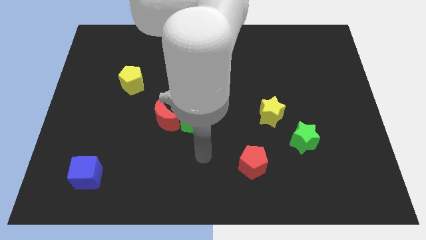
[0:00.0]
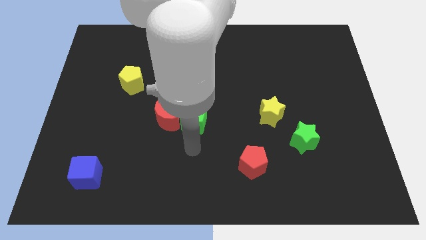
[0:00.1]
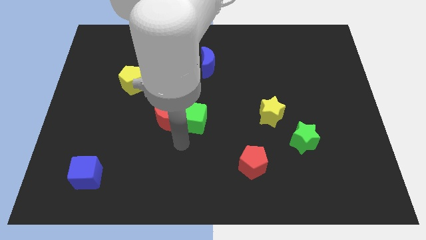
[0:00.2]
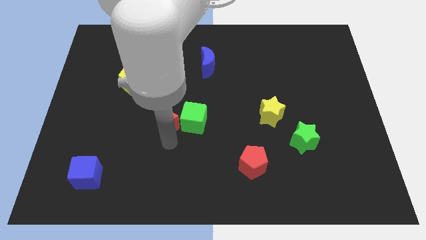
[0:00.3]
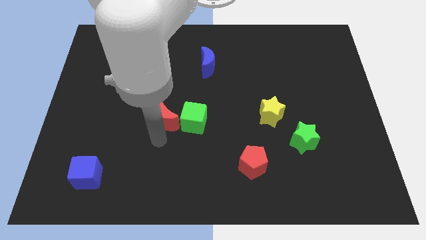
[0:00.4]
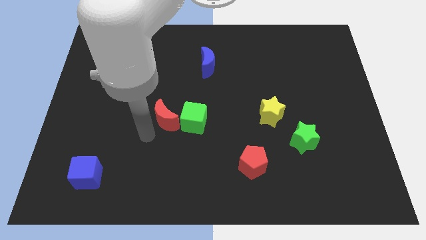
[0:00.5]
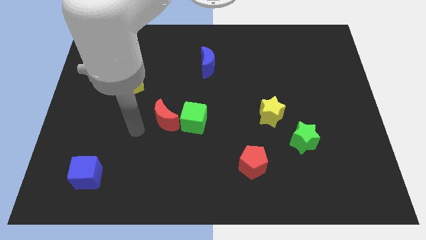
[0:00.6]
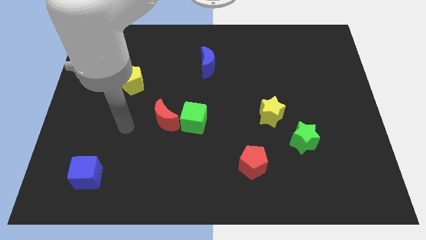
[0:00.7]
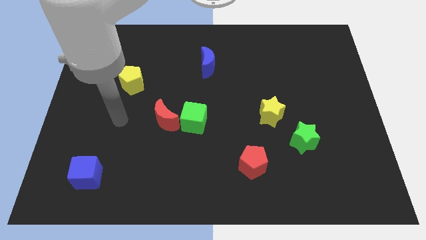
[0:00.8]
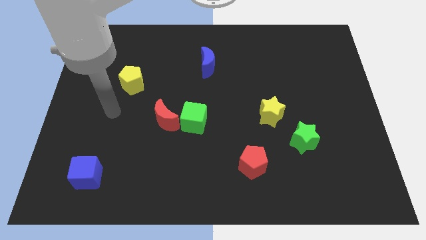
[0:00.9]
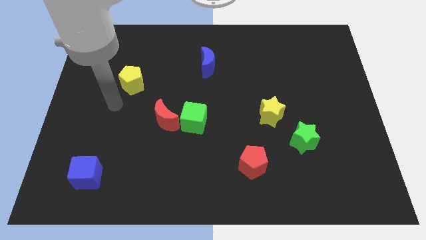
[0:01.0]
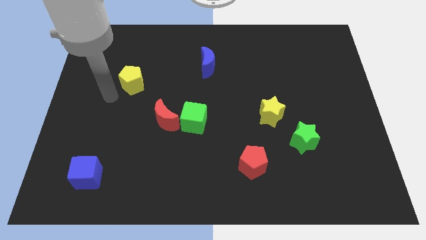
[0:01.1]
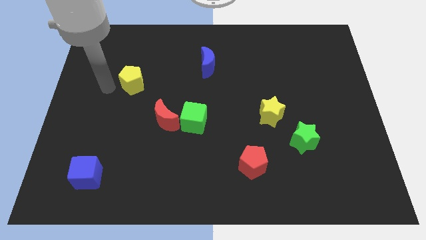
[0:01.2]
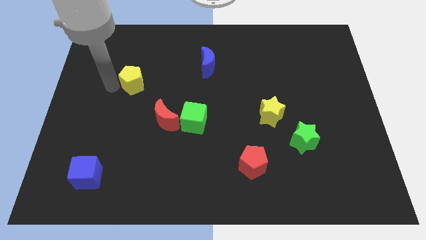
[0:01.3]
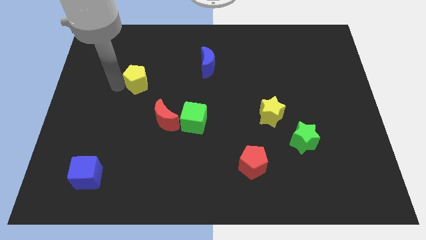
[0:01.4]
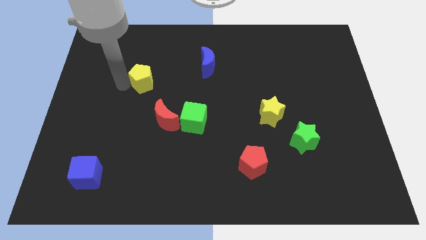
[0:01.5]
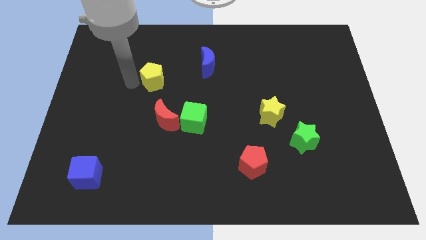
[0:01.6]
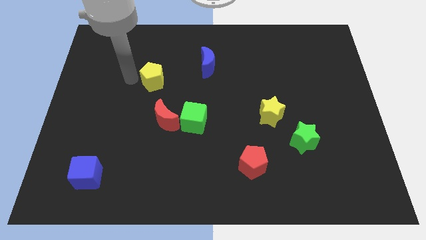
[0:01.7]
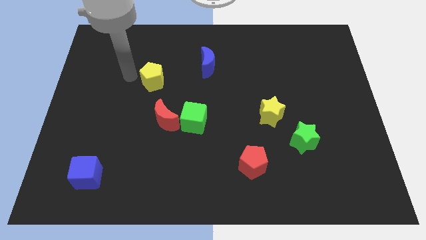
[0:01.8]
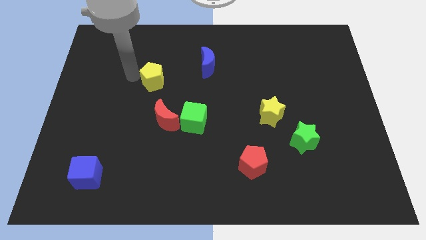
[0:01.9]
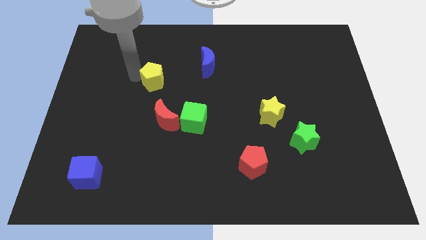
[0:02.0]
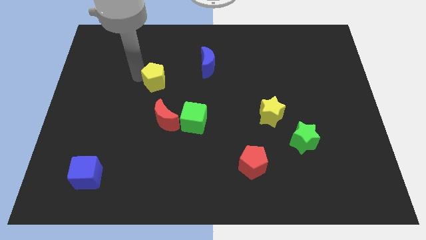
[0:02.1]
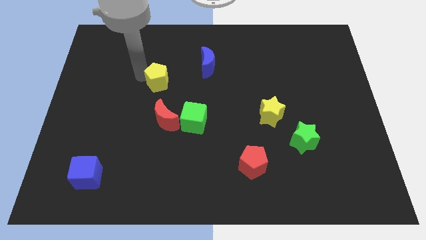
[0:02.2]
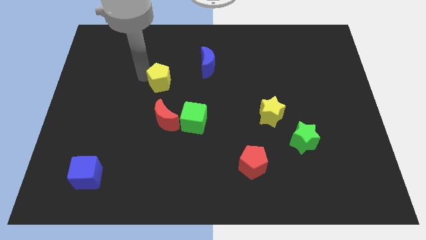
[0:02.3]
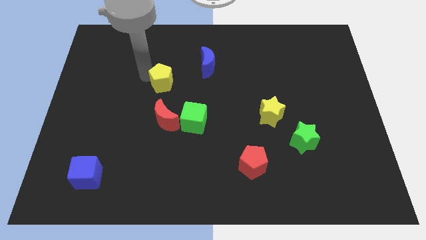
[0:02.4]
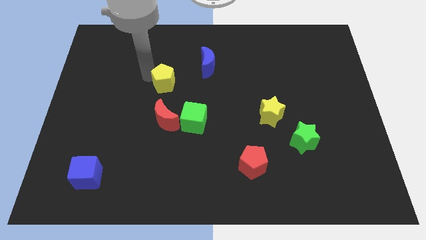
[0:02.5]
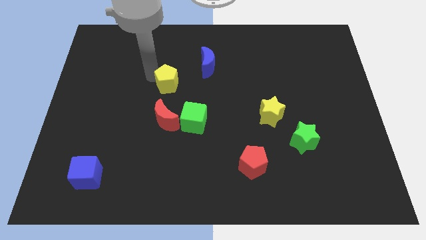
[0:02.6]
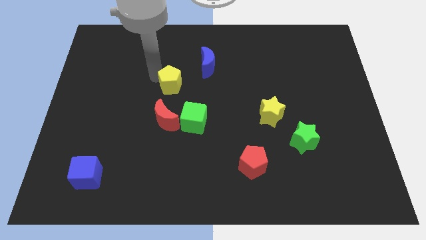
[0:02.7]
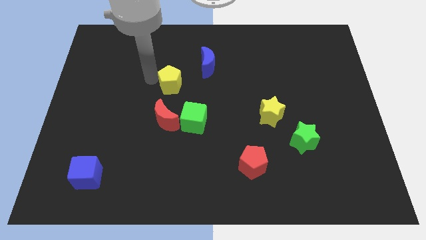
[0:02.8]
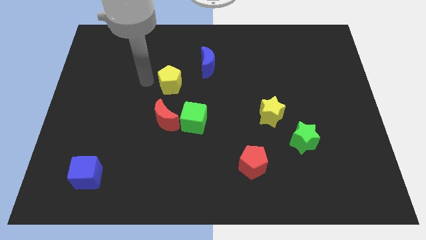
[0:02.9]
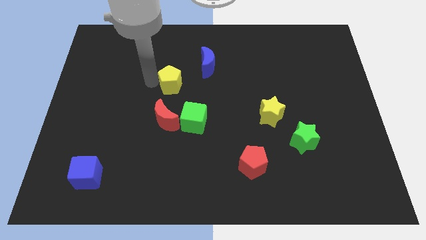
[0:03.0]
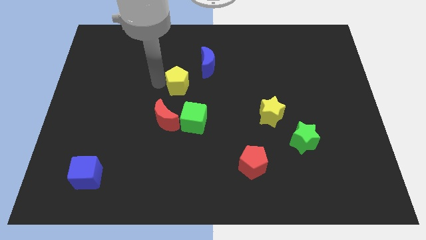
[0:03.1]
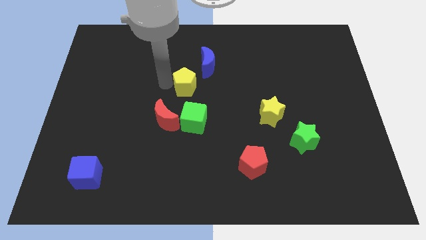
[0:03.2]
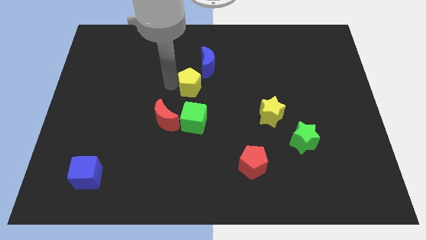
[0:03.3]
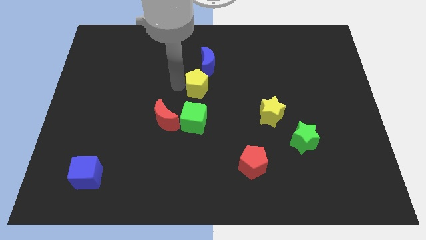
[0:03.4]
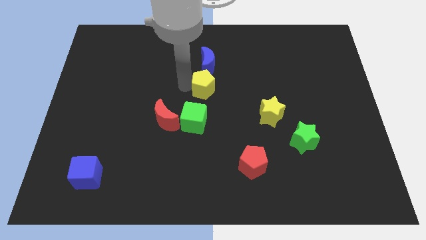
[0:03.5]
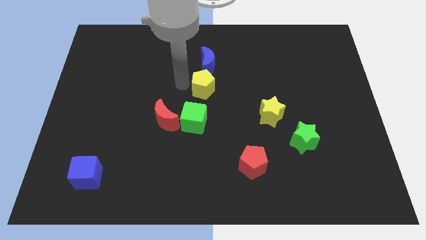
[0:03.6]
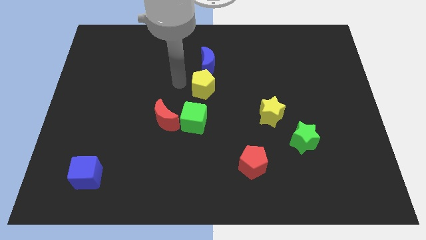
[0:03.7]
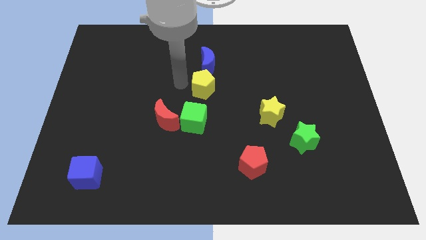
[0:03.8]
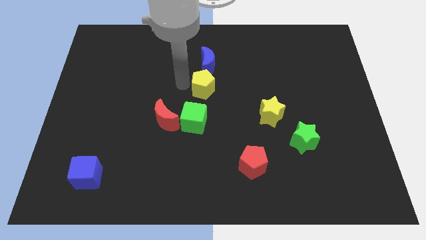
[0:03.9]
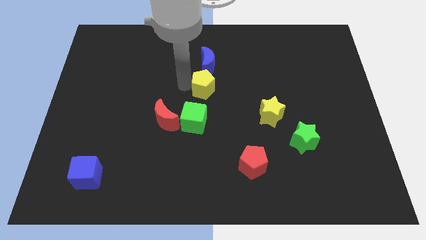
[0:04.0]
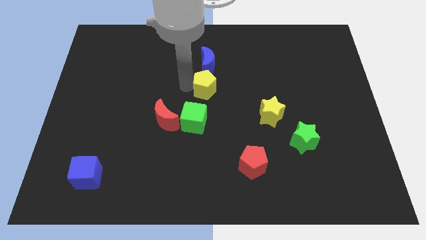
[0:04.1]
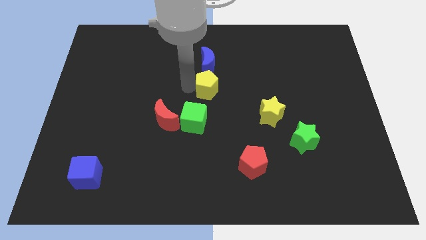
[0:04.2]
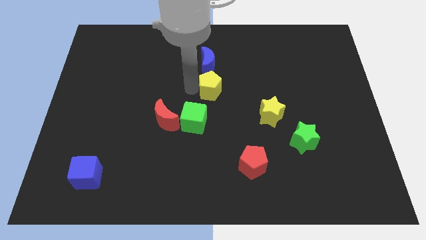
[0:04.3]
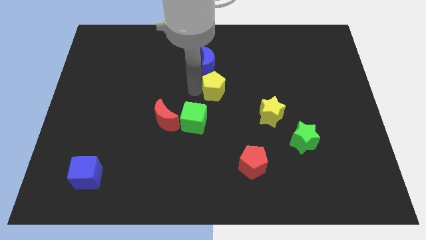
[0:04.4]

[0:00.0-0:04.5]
push the yellow pentagon to the right

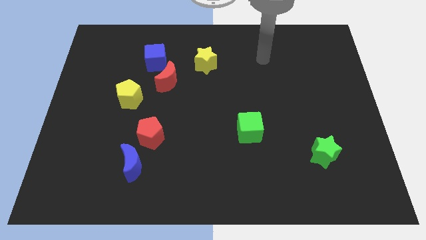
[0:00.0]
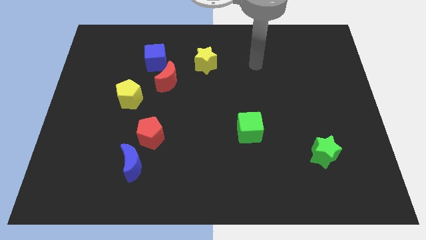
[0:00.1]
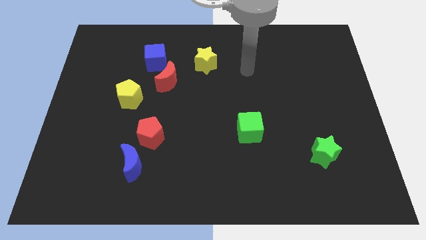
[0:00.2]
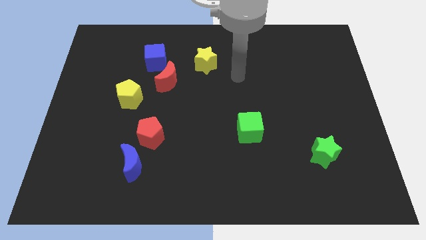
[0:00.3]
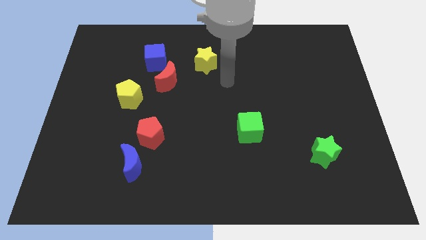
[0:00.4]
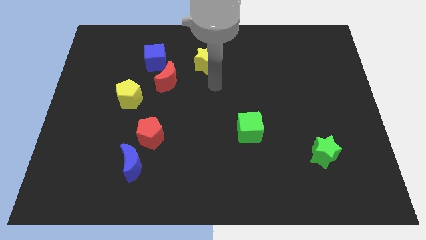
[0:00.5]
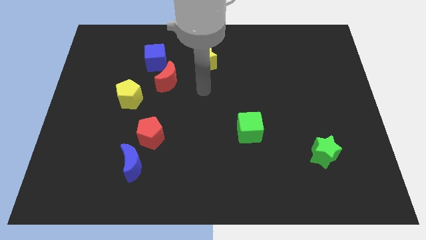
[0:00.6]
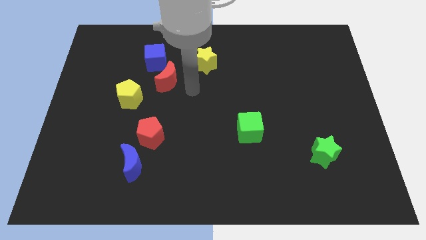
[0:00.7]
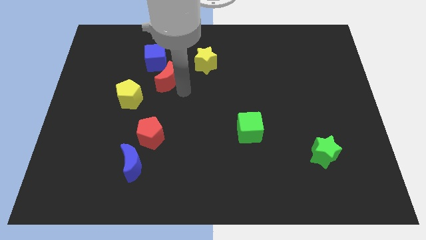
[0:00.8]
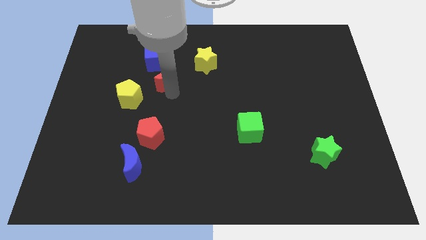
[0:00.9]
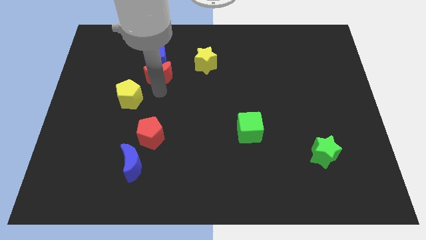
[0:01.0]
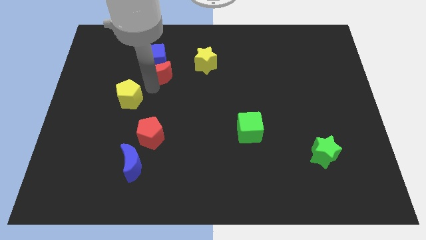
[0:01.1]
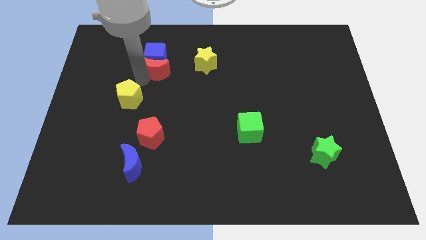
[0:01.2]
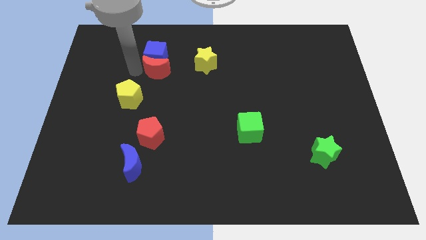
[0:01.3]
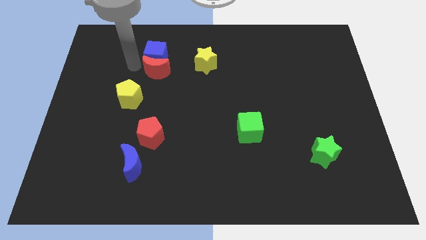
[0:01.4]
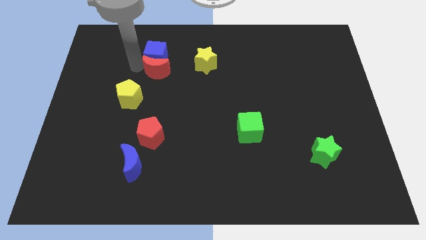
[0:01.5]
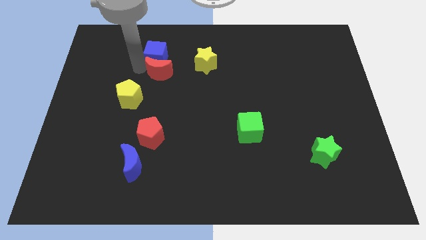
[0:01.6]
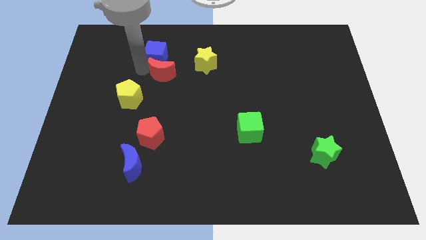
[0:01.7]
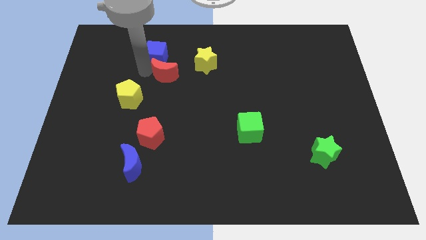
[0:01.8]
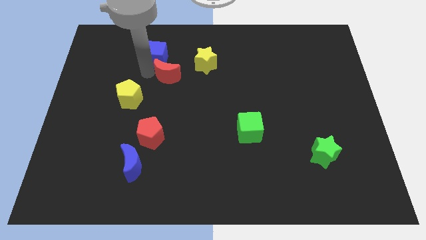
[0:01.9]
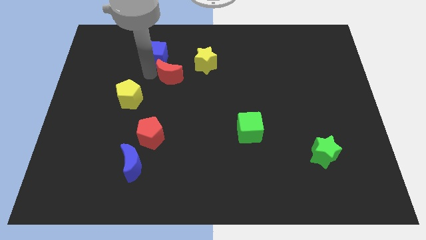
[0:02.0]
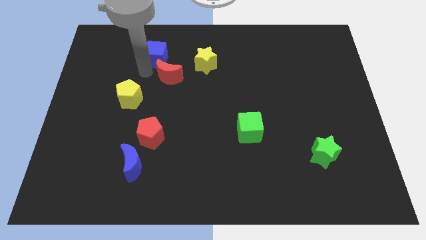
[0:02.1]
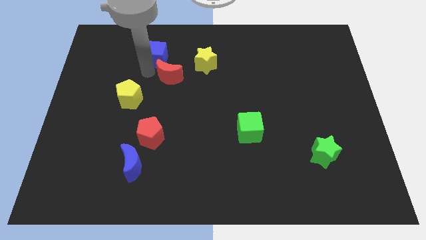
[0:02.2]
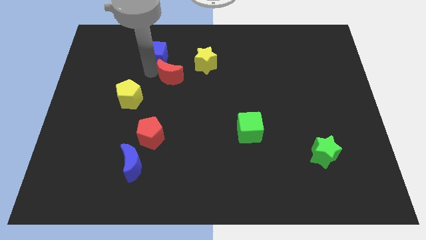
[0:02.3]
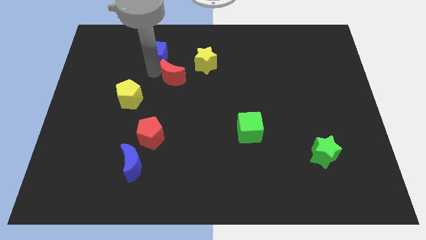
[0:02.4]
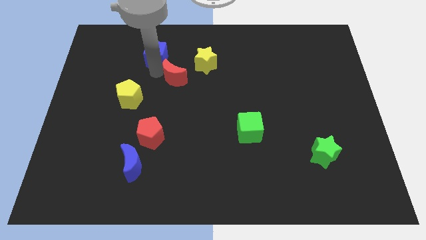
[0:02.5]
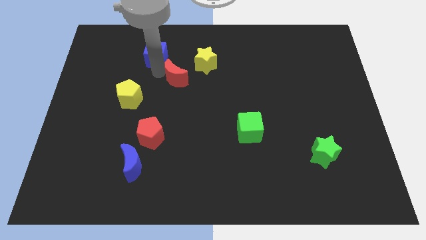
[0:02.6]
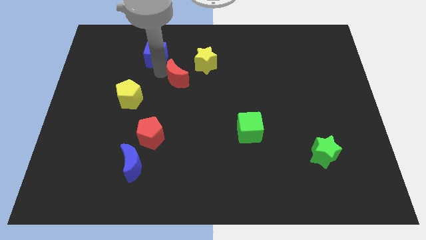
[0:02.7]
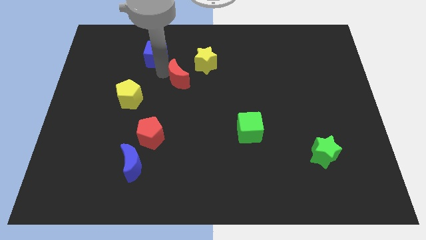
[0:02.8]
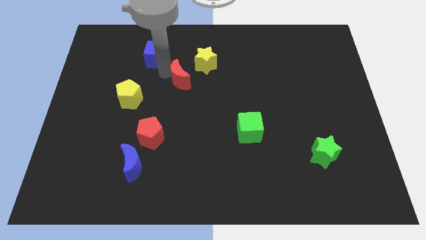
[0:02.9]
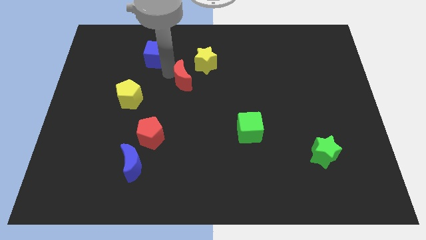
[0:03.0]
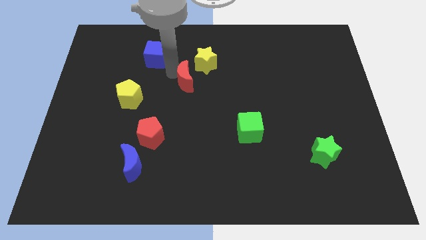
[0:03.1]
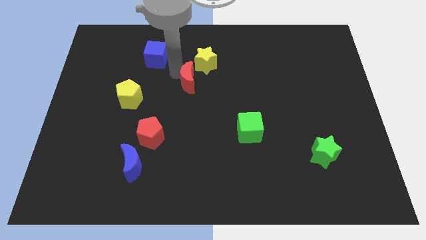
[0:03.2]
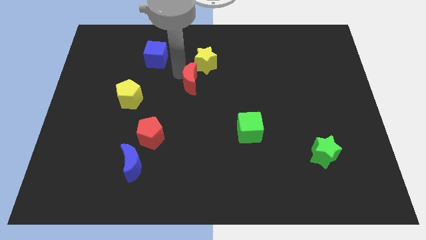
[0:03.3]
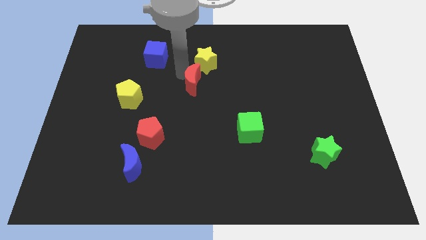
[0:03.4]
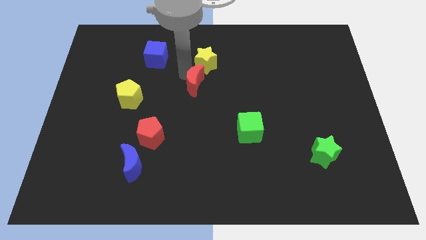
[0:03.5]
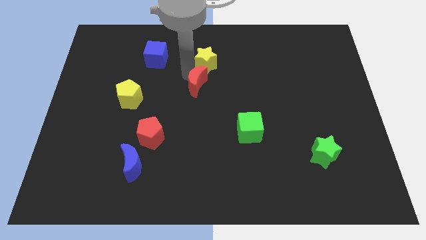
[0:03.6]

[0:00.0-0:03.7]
move the red moon right a bit
